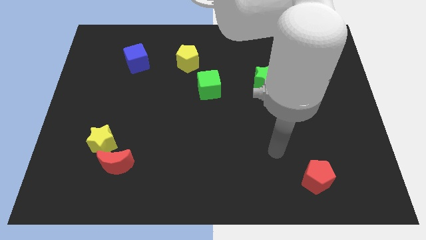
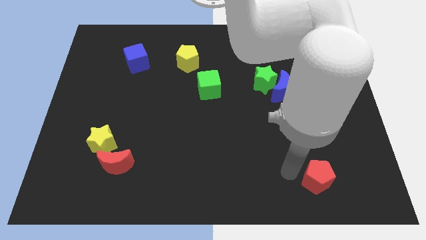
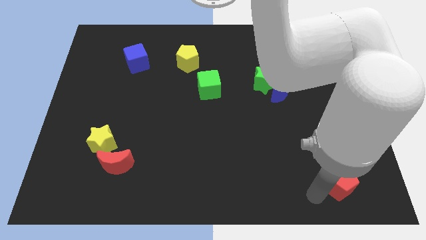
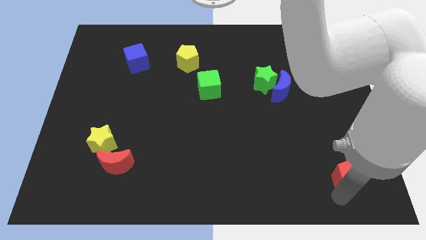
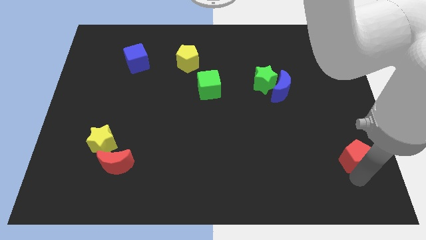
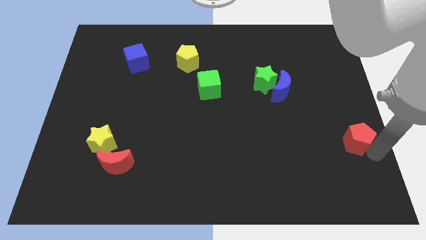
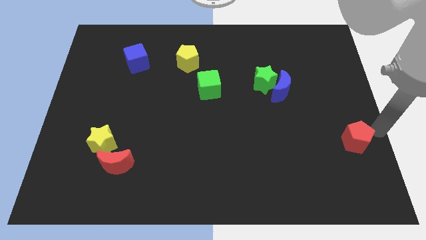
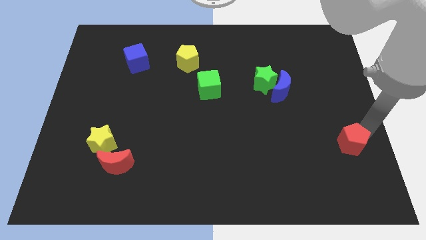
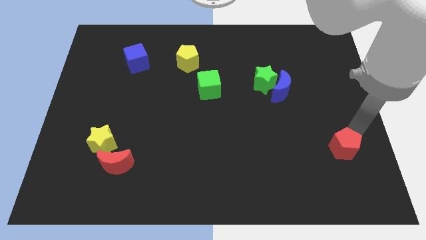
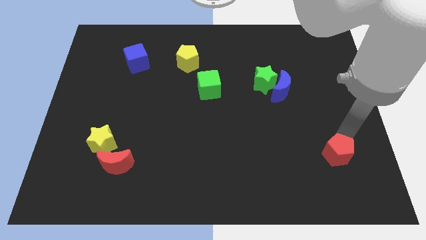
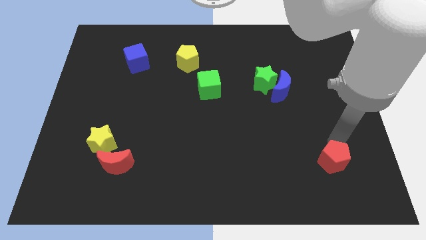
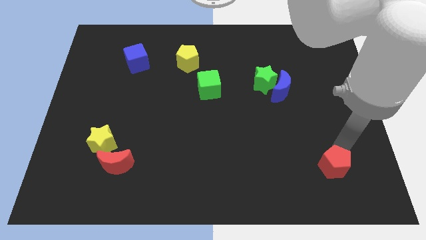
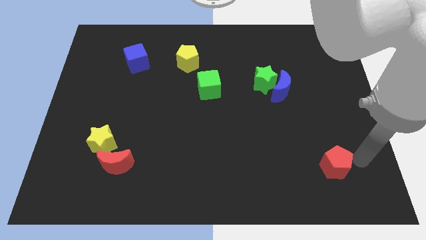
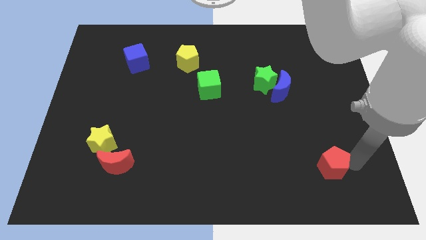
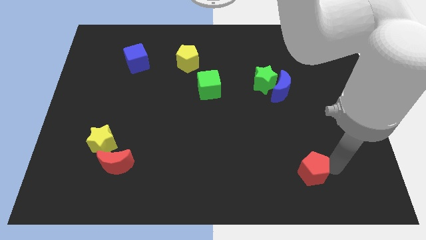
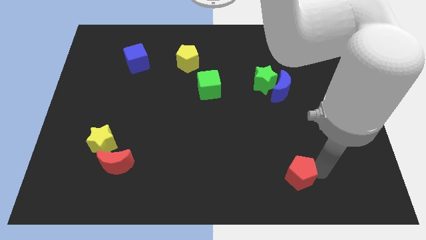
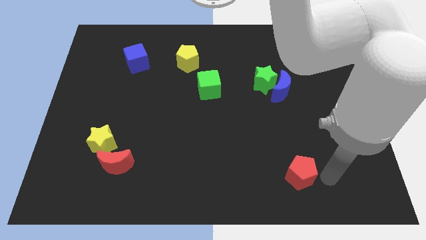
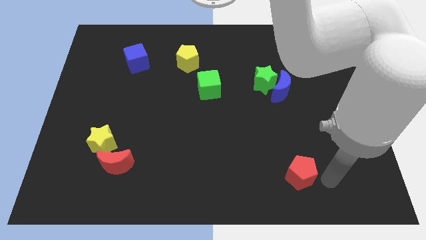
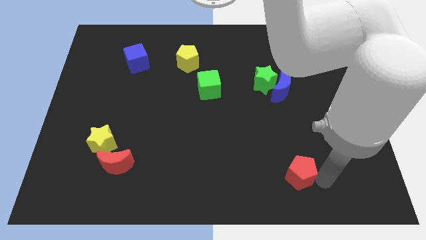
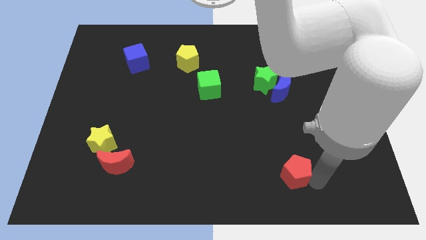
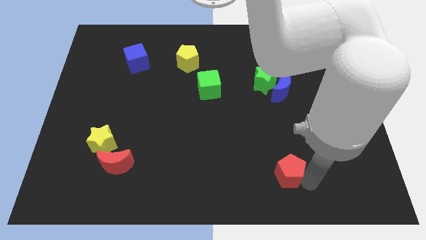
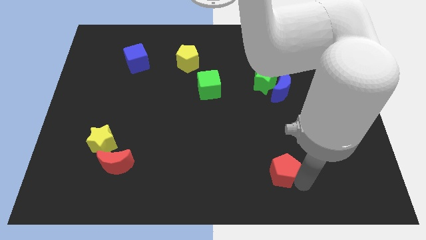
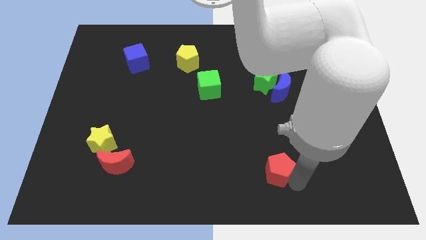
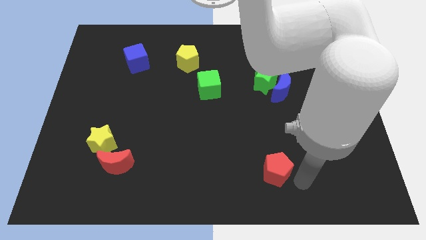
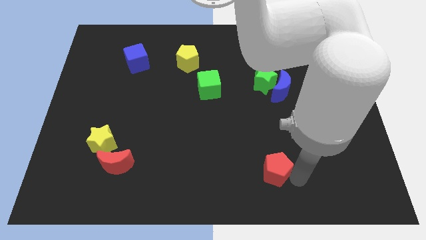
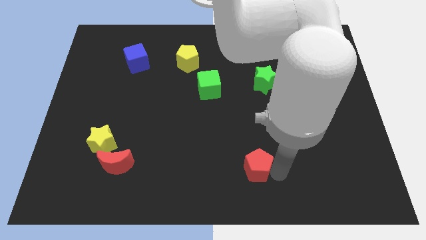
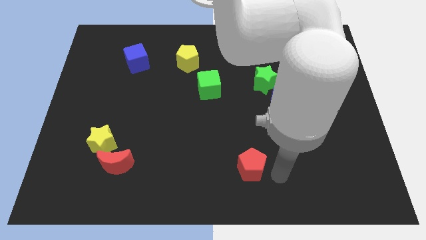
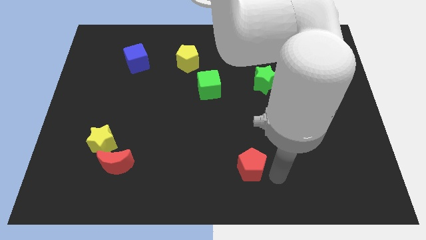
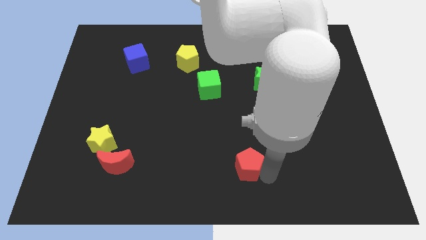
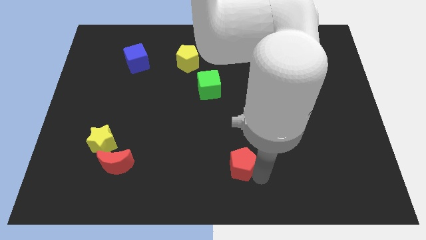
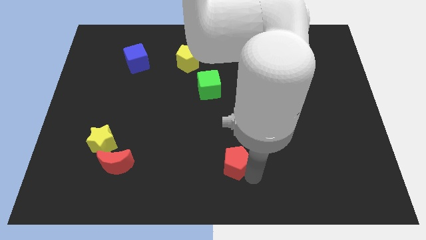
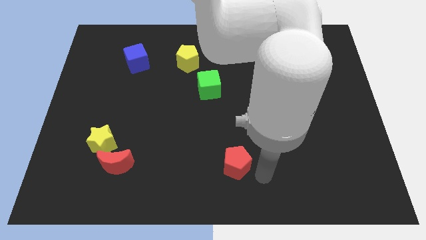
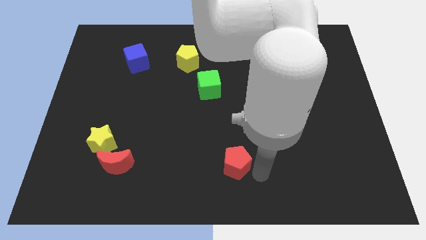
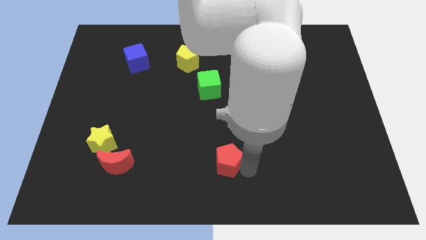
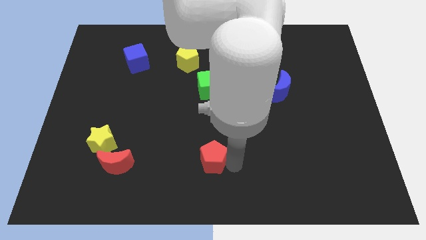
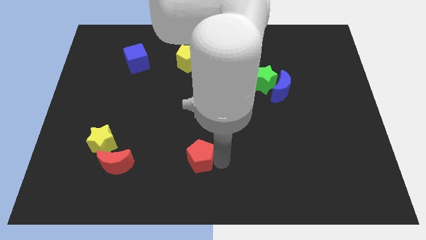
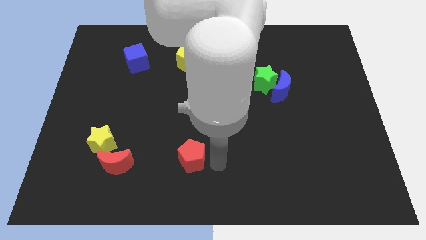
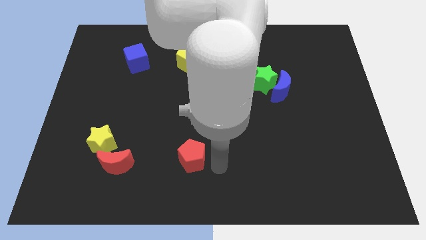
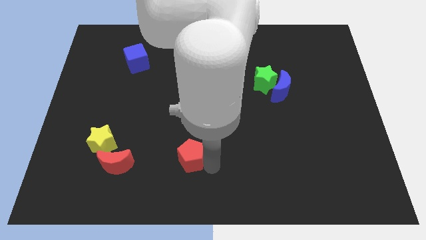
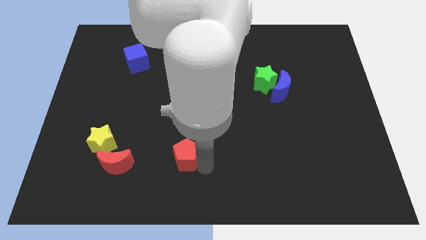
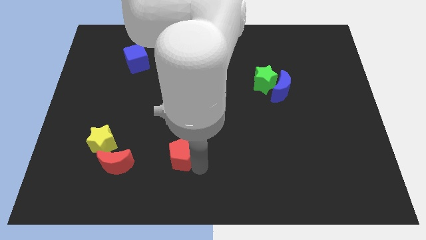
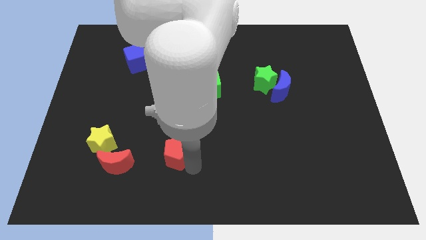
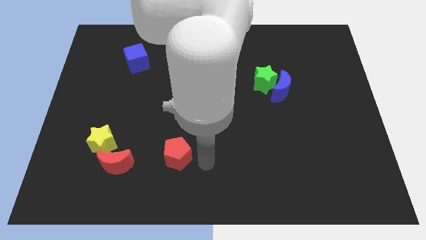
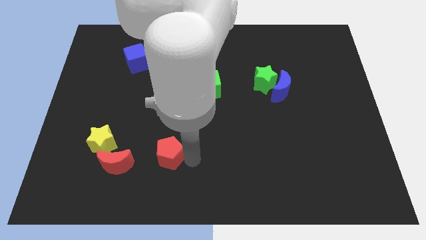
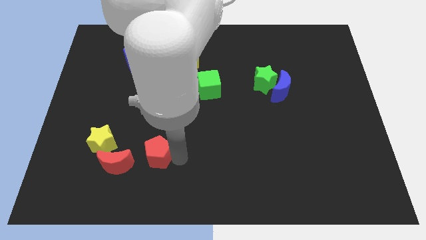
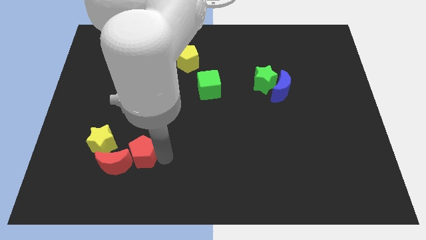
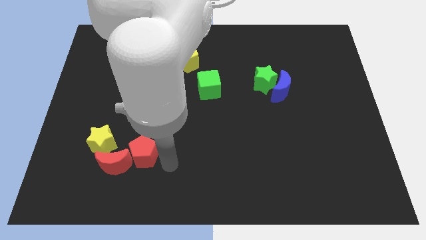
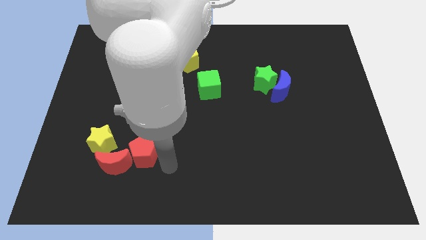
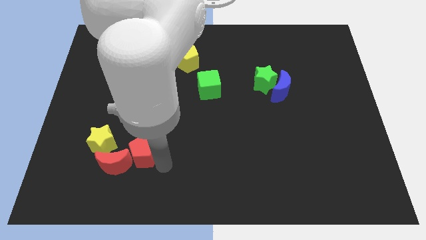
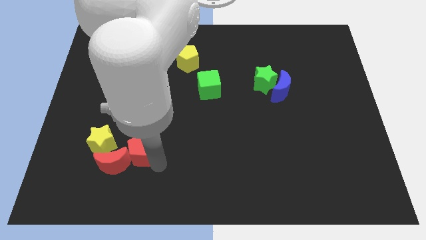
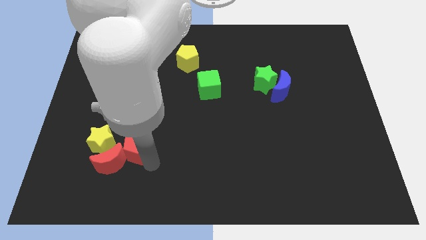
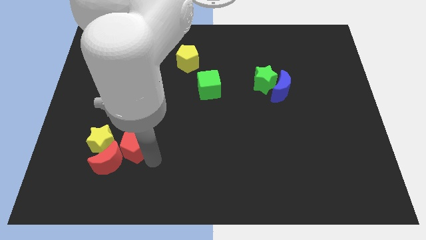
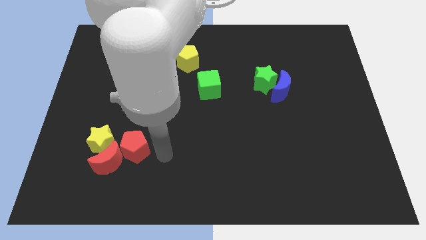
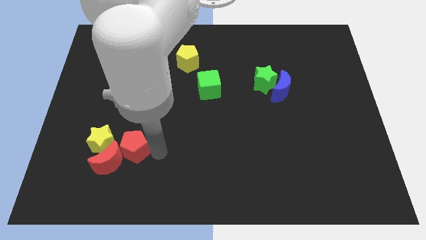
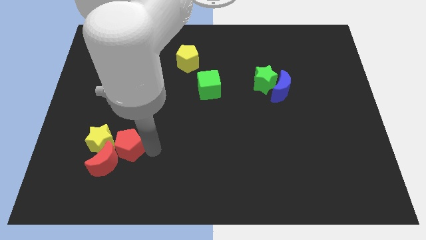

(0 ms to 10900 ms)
move the red pentagon next to the yellow star

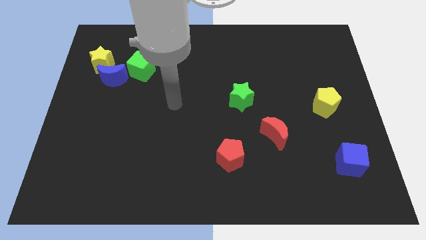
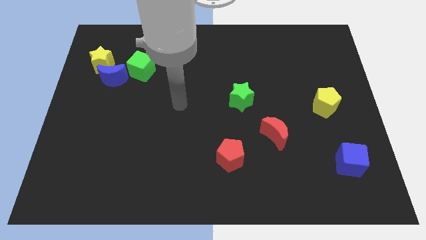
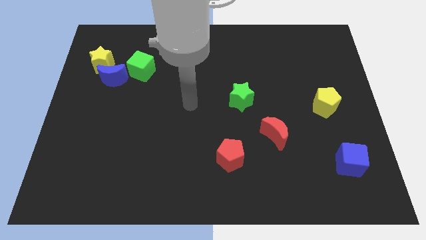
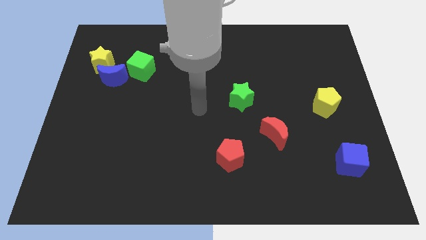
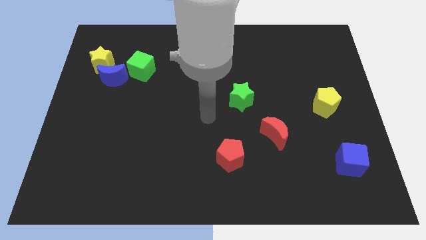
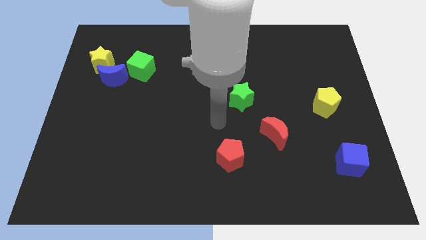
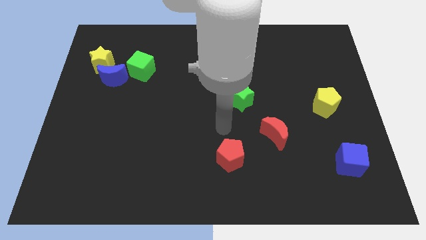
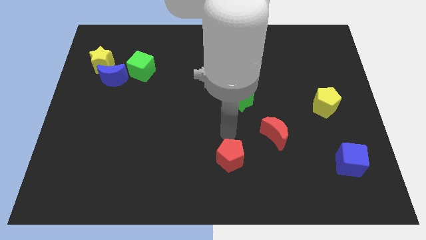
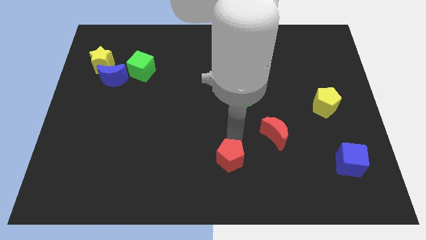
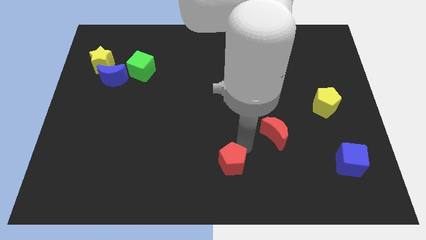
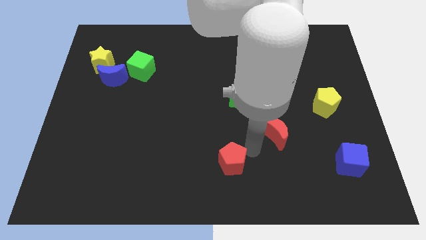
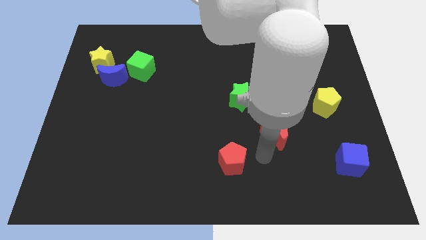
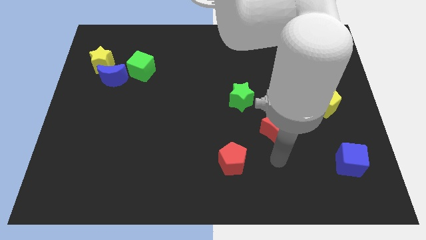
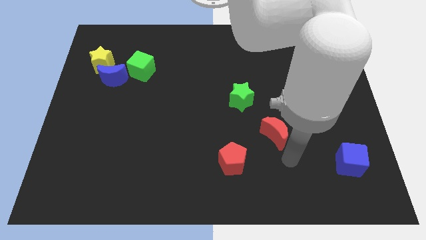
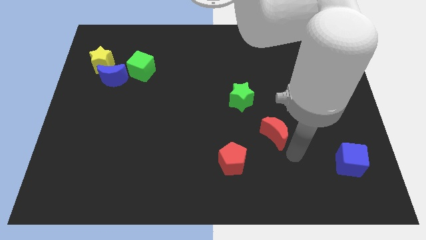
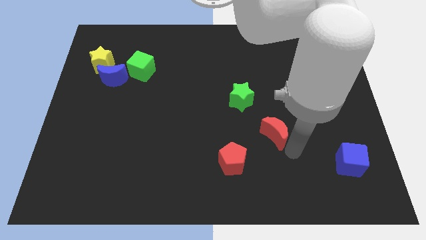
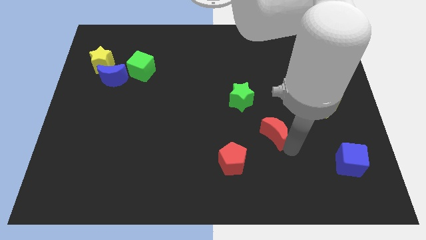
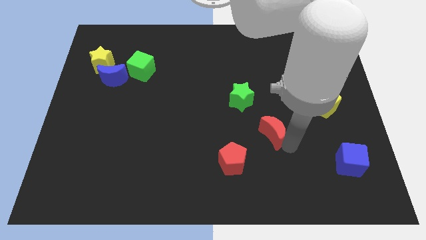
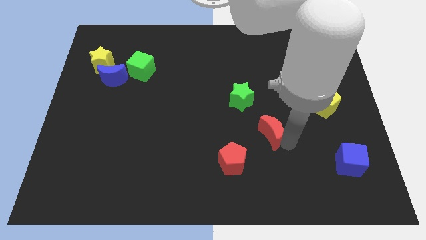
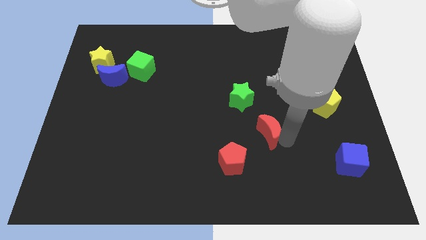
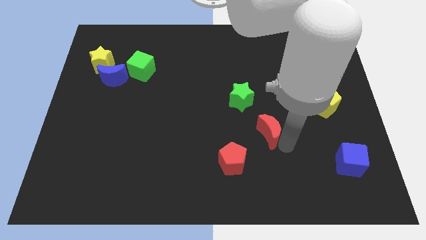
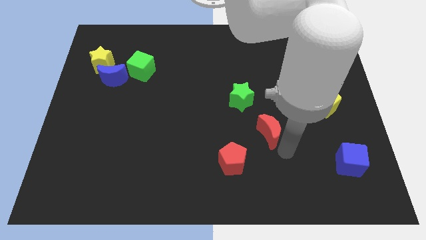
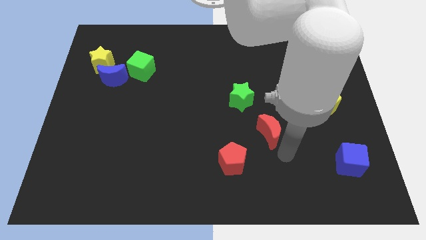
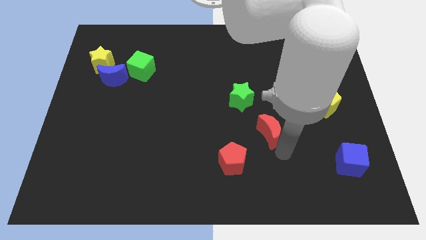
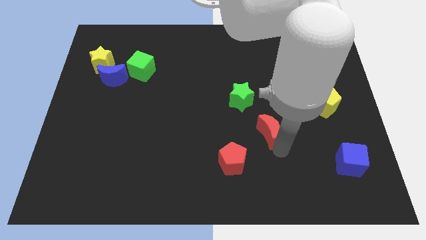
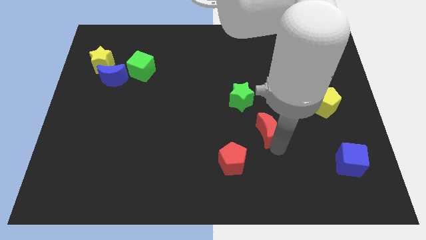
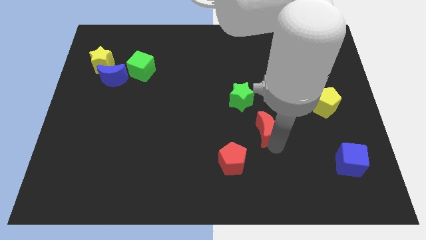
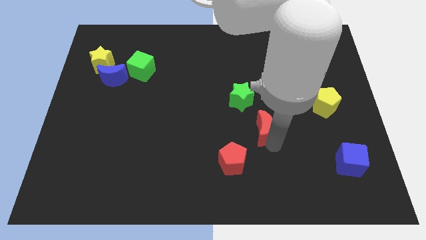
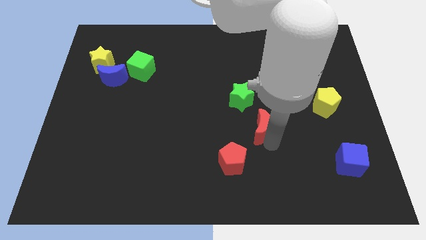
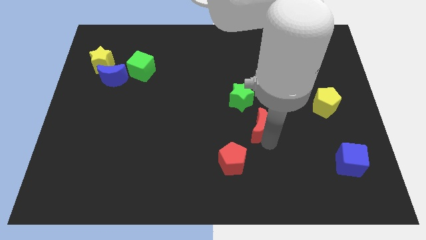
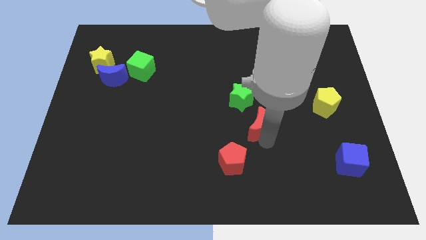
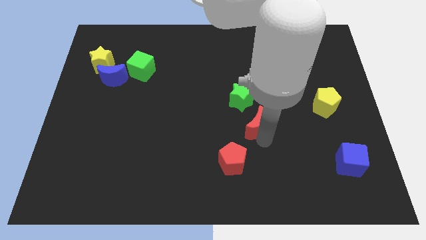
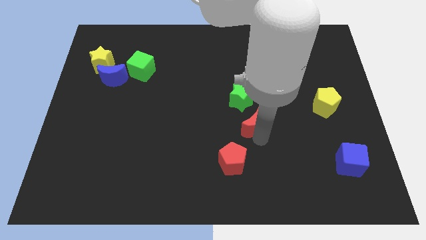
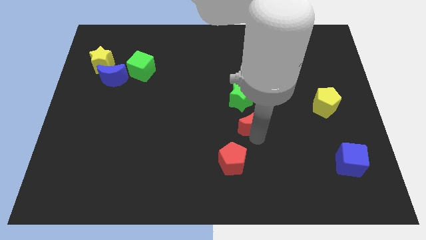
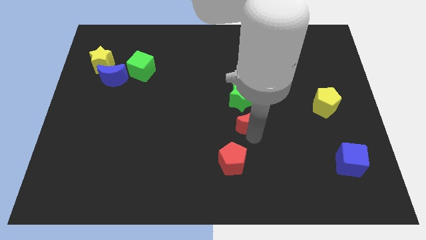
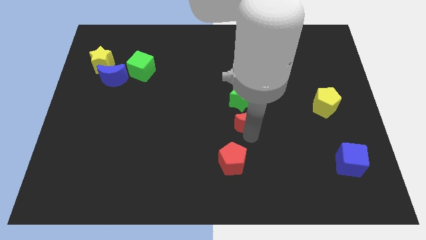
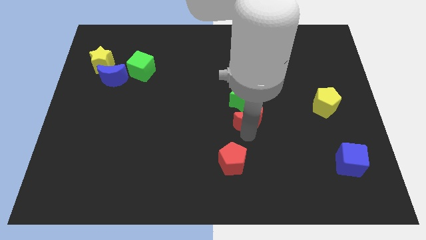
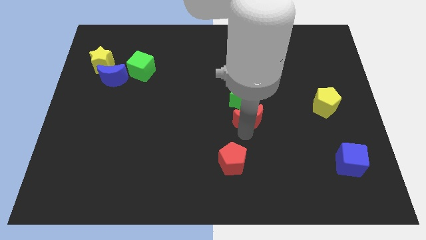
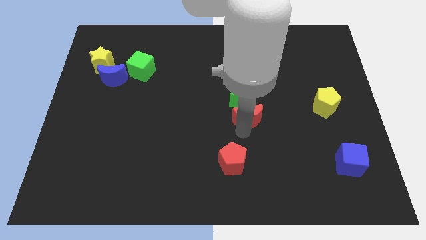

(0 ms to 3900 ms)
push the red moon close to the green star
